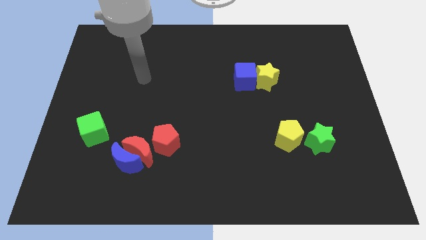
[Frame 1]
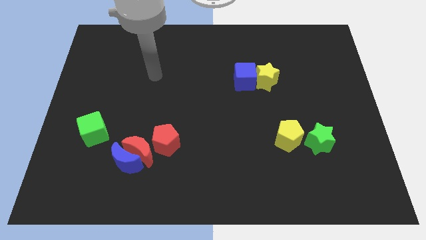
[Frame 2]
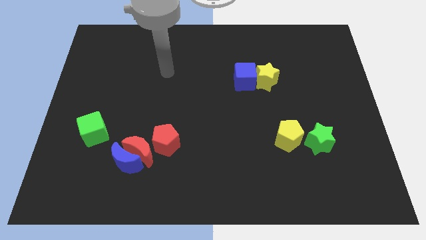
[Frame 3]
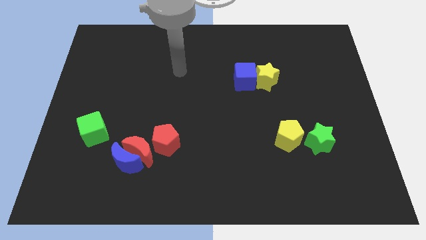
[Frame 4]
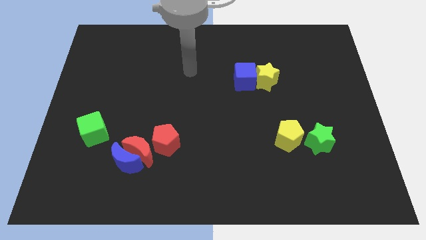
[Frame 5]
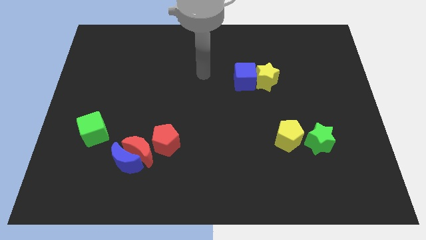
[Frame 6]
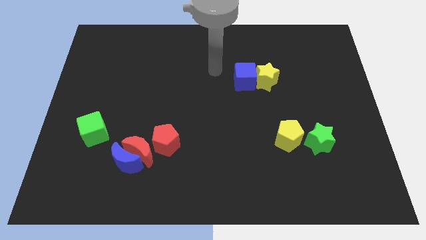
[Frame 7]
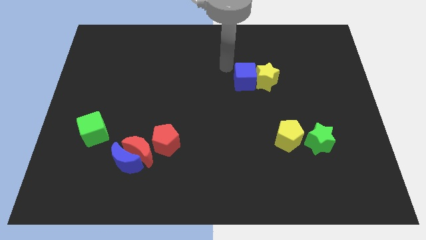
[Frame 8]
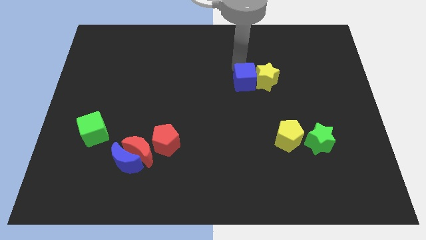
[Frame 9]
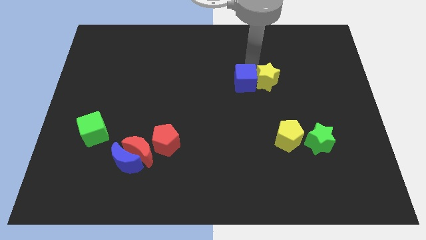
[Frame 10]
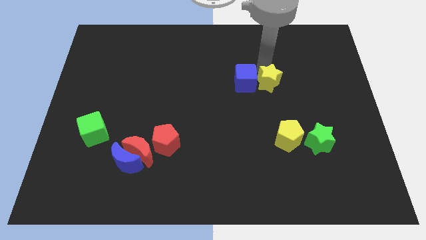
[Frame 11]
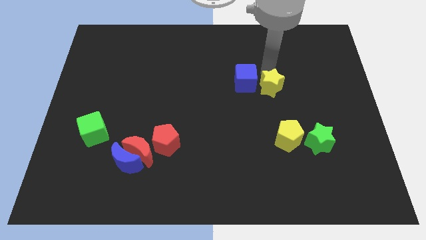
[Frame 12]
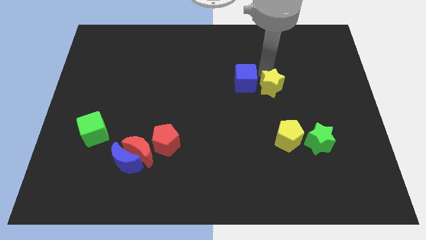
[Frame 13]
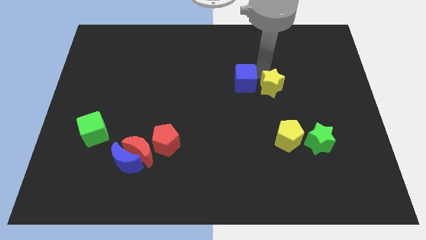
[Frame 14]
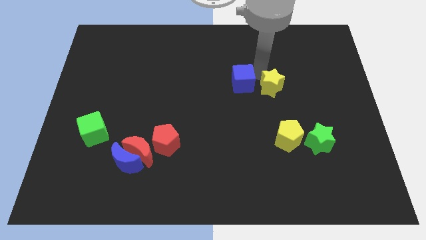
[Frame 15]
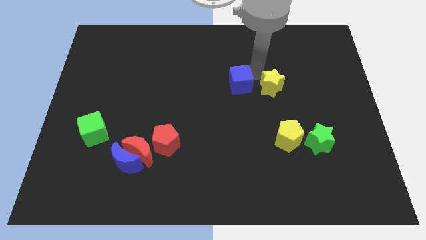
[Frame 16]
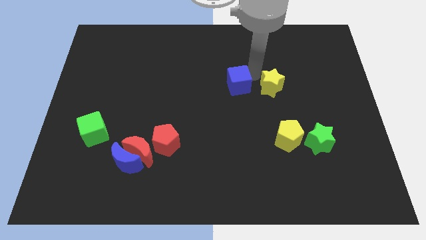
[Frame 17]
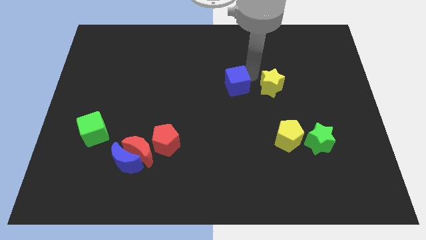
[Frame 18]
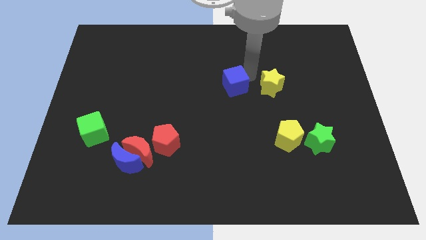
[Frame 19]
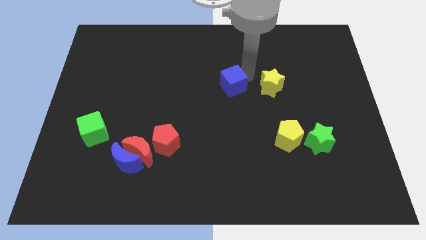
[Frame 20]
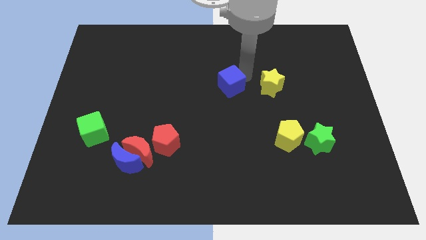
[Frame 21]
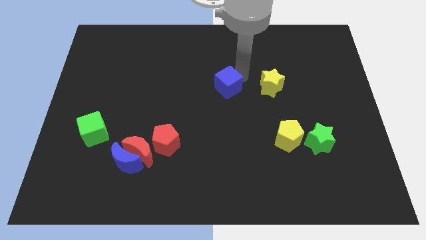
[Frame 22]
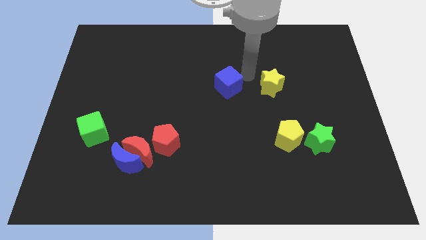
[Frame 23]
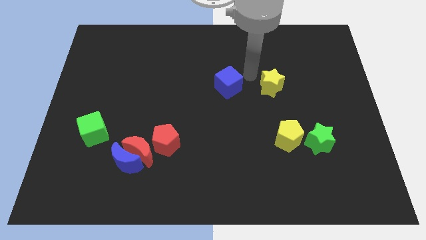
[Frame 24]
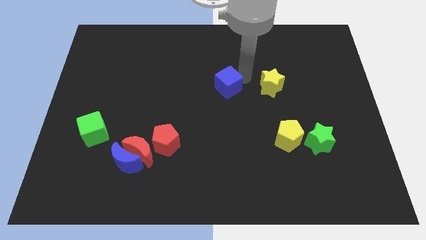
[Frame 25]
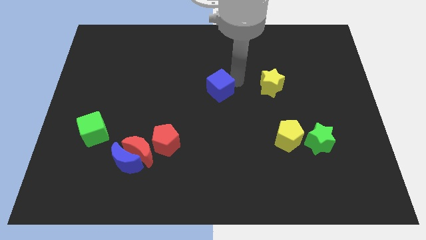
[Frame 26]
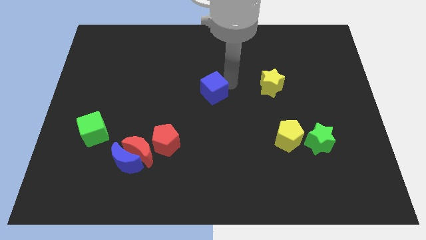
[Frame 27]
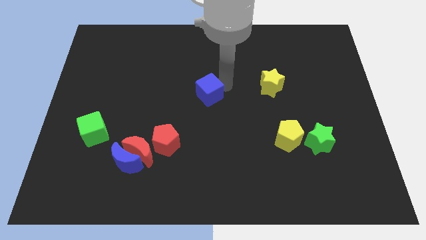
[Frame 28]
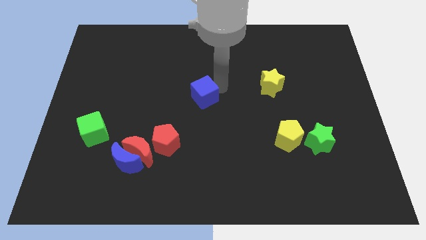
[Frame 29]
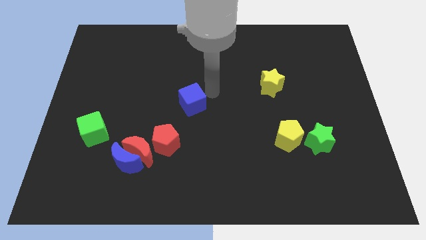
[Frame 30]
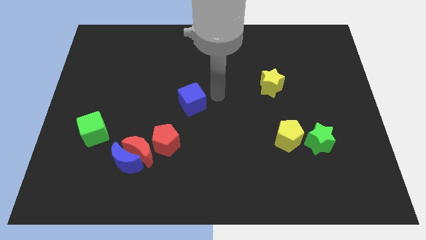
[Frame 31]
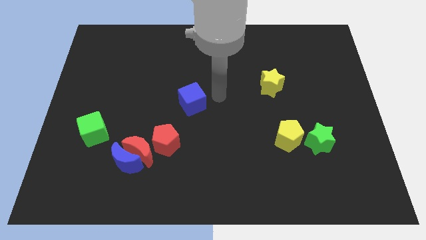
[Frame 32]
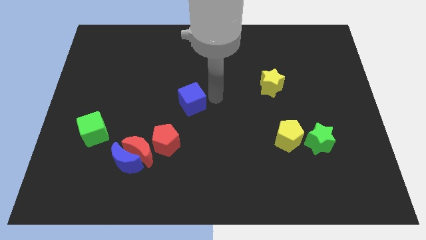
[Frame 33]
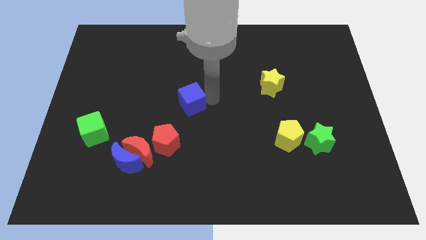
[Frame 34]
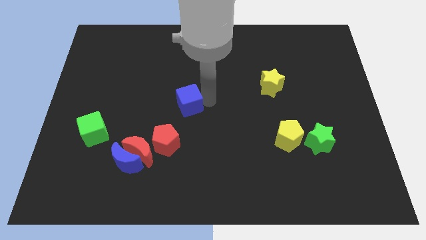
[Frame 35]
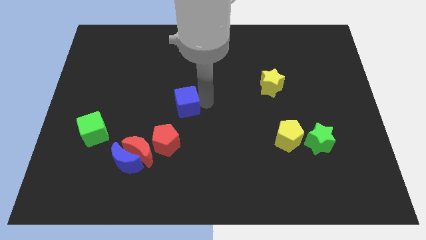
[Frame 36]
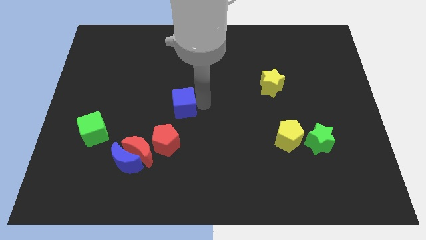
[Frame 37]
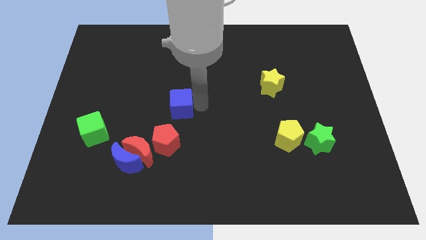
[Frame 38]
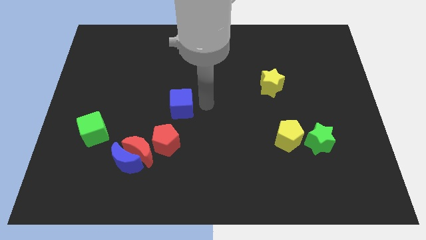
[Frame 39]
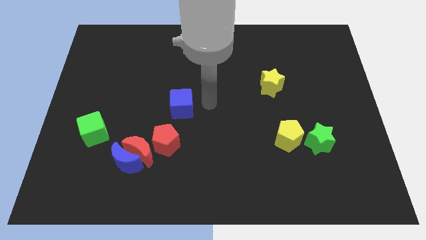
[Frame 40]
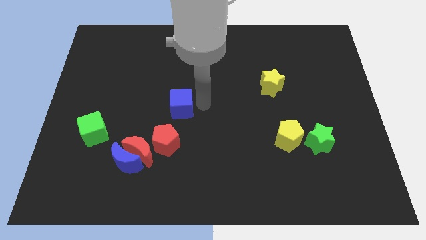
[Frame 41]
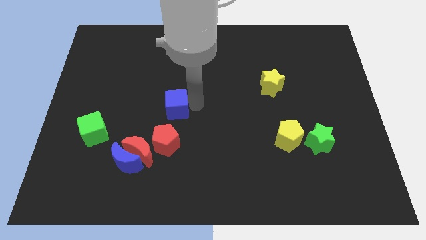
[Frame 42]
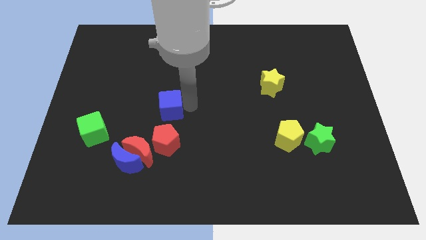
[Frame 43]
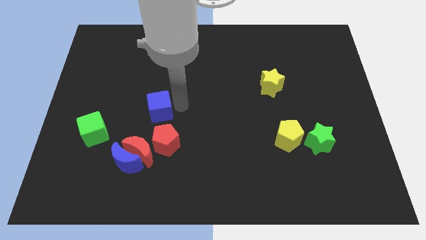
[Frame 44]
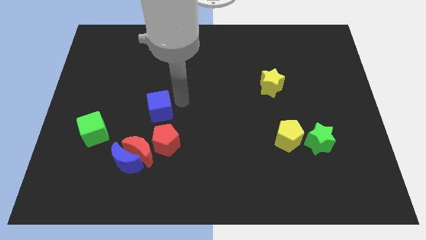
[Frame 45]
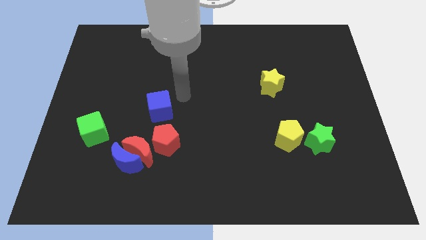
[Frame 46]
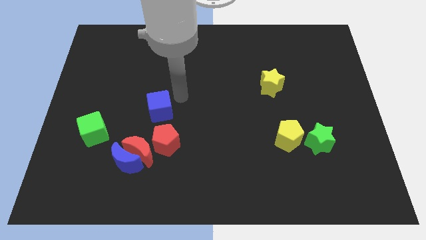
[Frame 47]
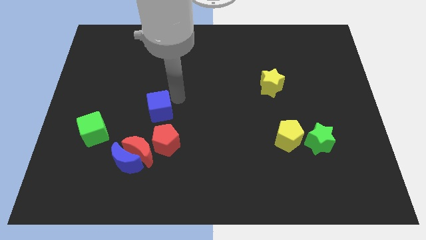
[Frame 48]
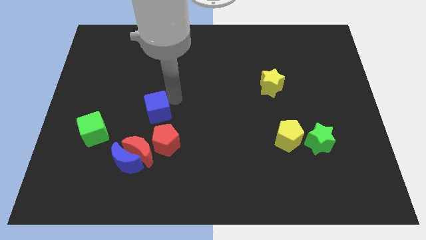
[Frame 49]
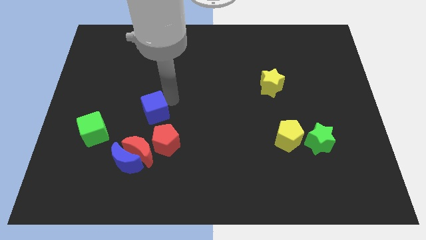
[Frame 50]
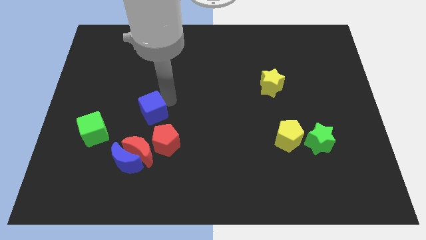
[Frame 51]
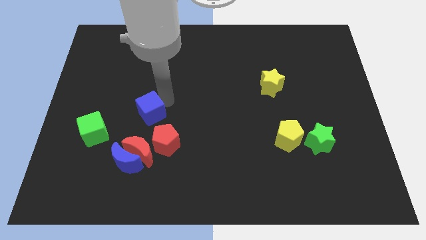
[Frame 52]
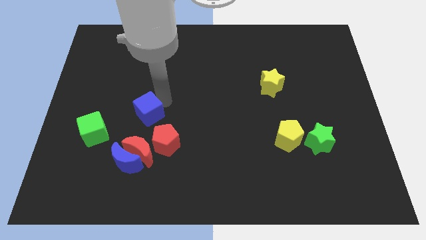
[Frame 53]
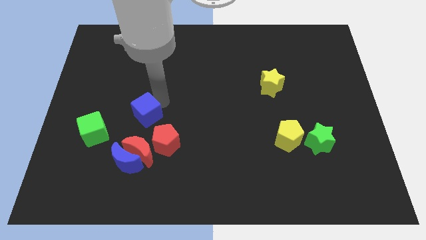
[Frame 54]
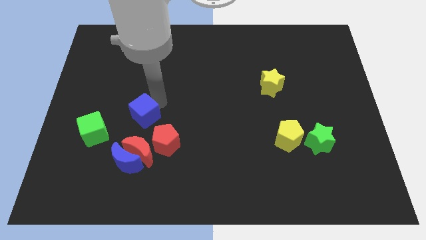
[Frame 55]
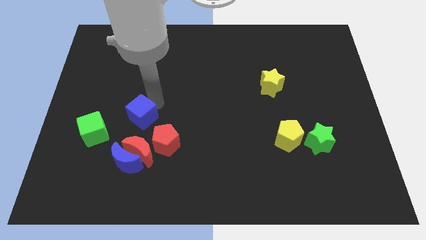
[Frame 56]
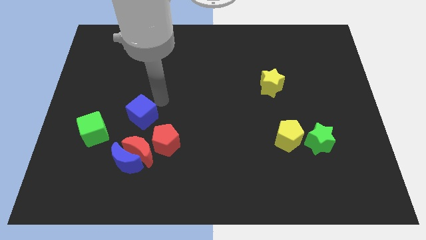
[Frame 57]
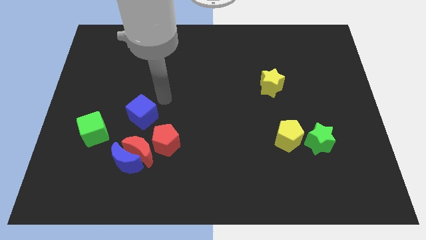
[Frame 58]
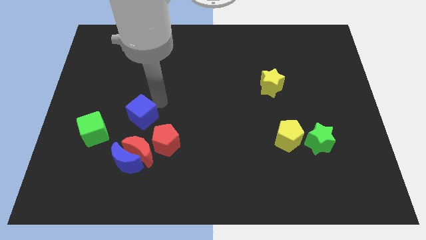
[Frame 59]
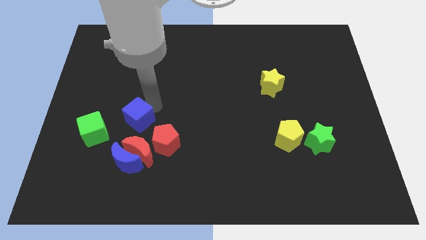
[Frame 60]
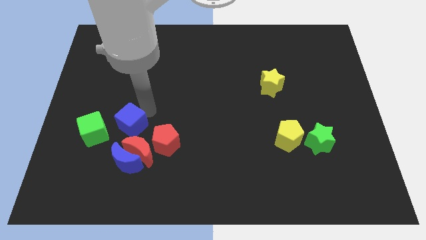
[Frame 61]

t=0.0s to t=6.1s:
put the blue cube diagonally up and to the left of the red moon

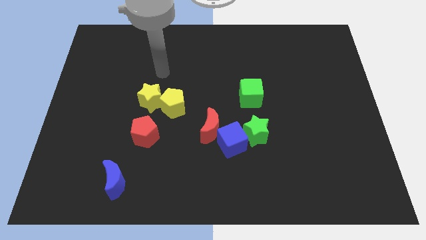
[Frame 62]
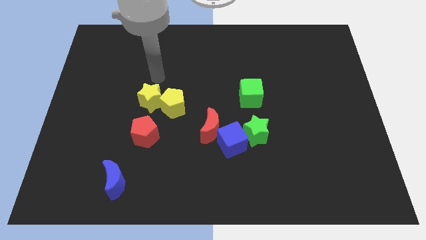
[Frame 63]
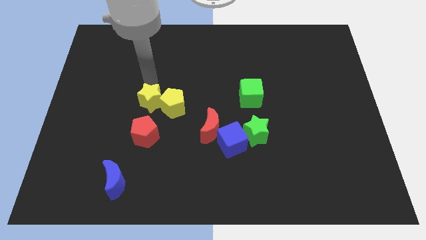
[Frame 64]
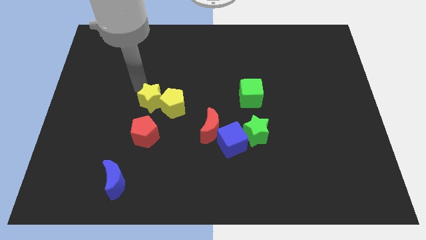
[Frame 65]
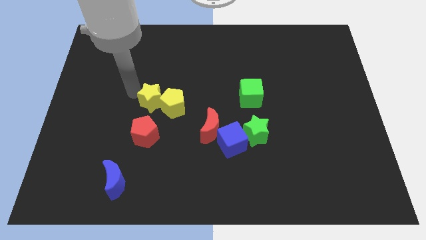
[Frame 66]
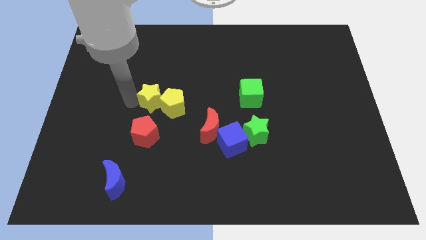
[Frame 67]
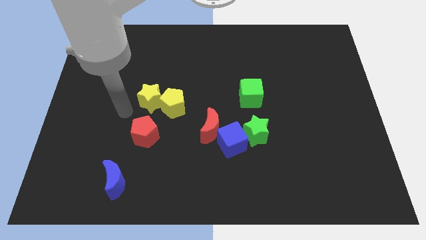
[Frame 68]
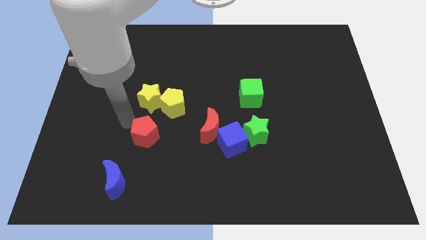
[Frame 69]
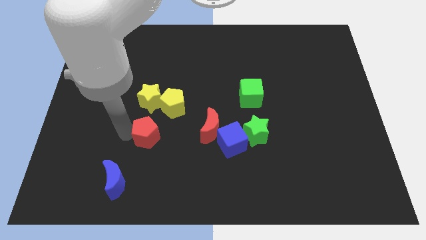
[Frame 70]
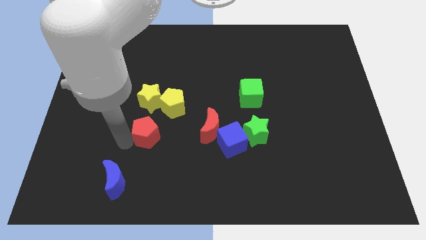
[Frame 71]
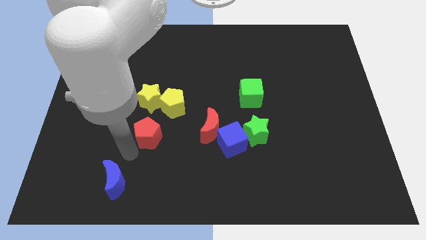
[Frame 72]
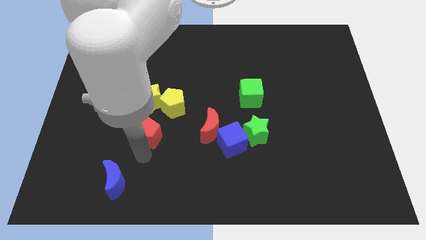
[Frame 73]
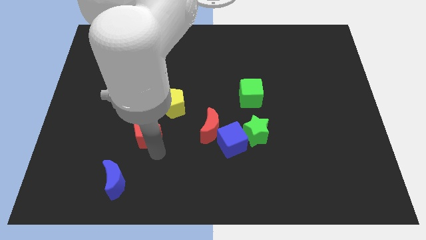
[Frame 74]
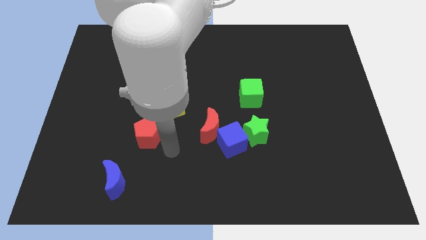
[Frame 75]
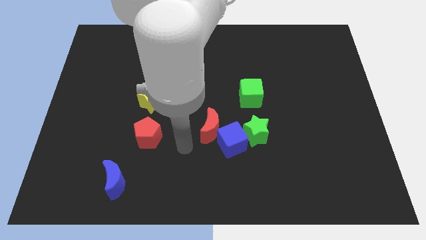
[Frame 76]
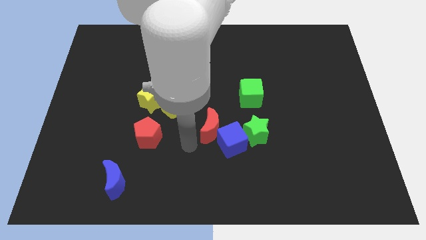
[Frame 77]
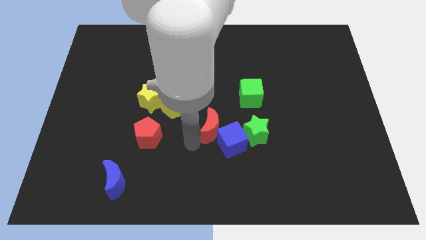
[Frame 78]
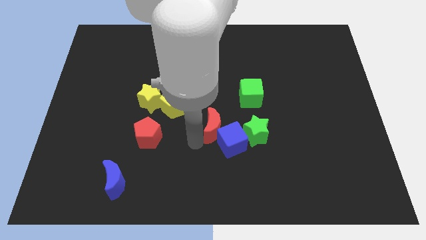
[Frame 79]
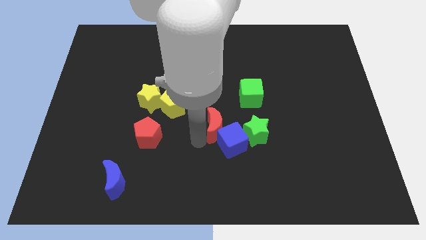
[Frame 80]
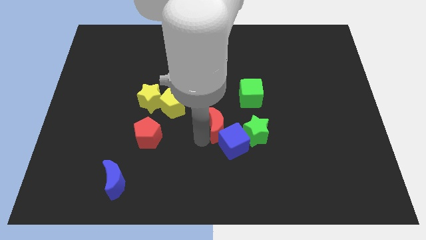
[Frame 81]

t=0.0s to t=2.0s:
put the red moon diagonally up and to the left of the green star
